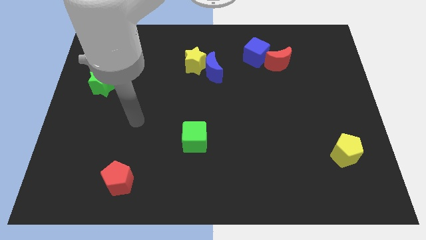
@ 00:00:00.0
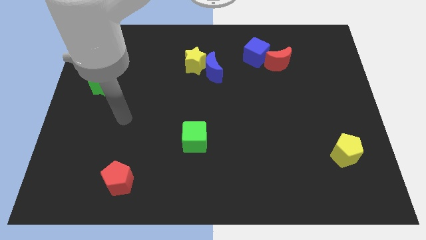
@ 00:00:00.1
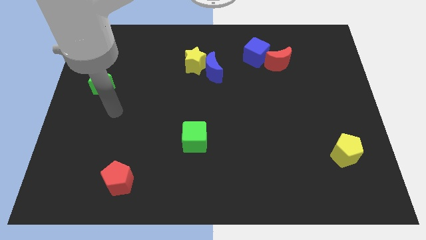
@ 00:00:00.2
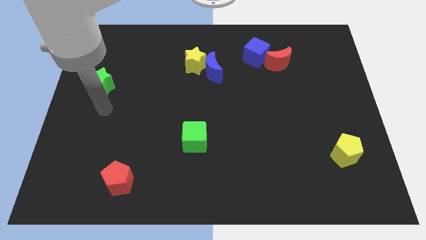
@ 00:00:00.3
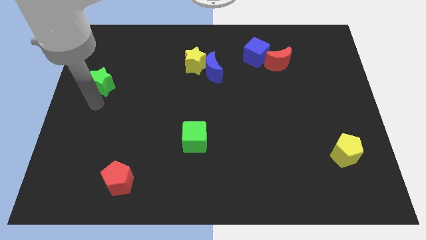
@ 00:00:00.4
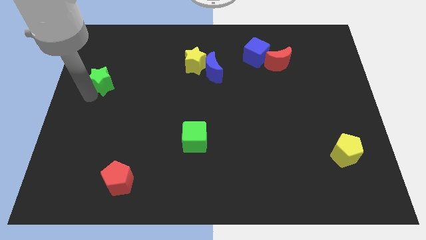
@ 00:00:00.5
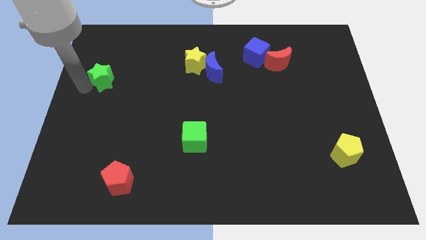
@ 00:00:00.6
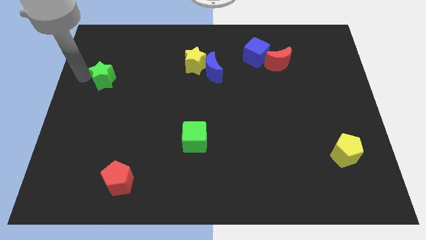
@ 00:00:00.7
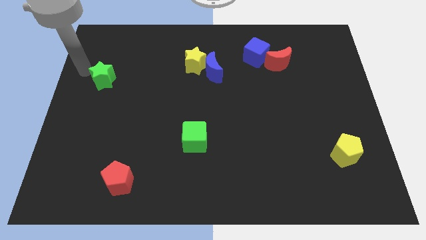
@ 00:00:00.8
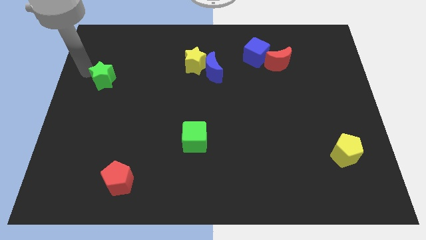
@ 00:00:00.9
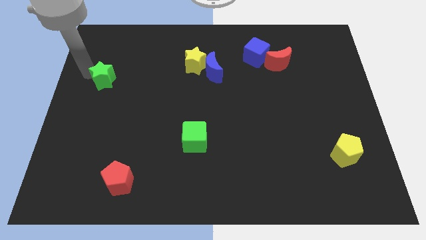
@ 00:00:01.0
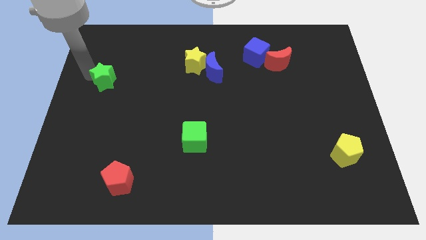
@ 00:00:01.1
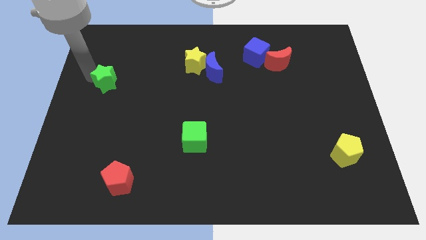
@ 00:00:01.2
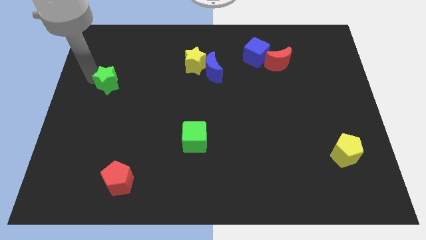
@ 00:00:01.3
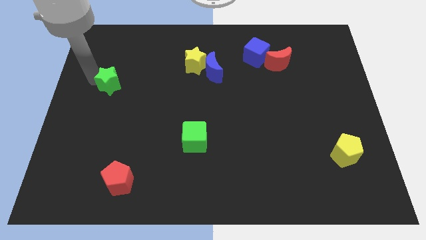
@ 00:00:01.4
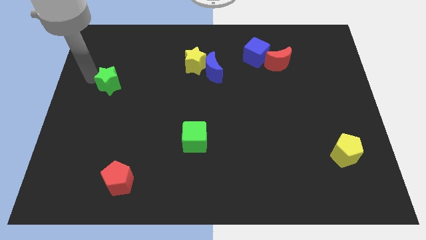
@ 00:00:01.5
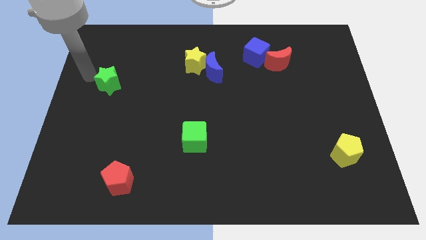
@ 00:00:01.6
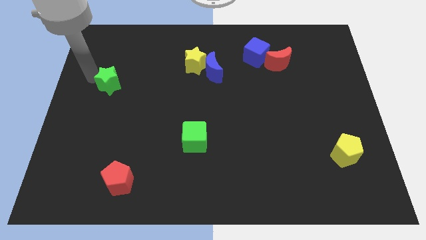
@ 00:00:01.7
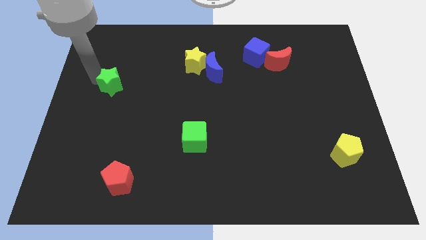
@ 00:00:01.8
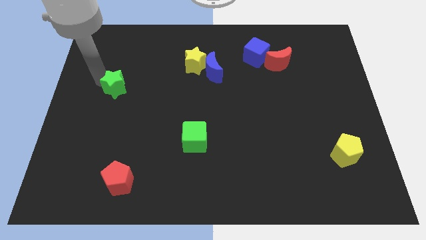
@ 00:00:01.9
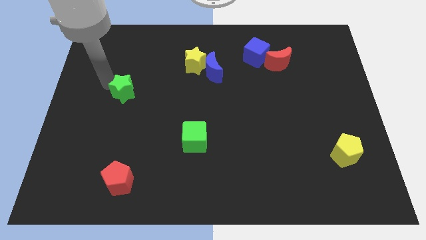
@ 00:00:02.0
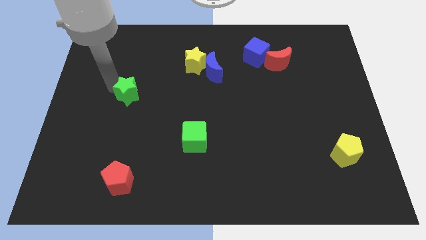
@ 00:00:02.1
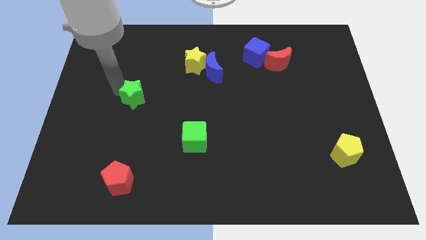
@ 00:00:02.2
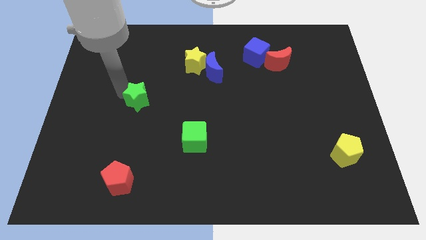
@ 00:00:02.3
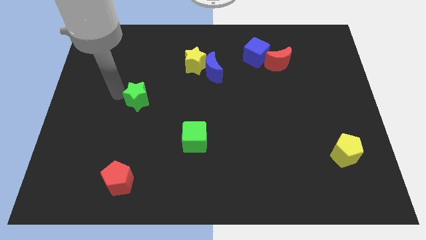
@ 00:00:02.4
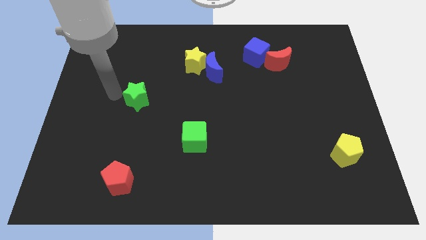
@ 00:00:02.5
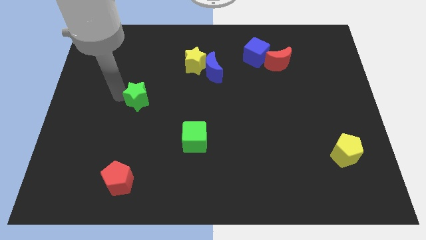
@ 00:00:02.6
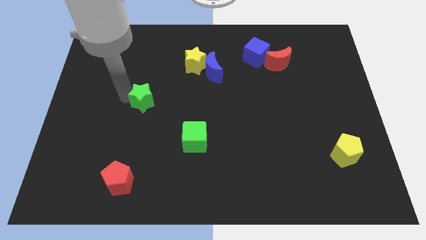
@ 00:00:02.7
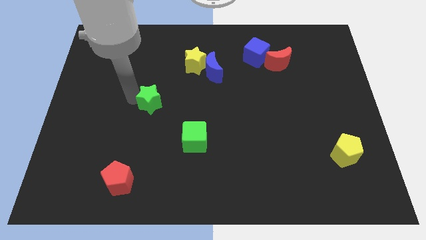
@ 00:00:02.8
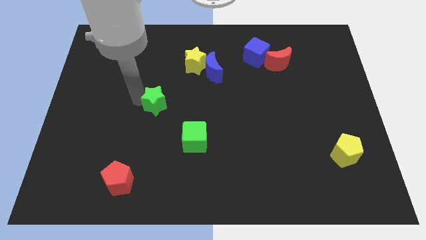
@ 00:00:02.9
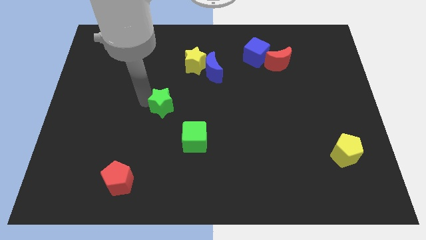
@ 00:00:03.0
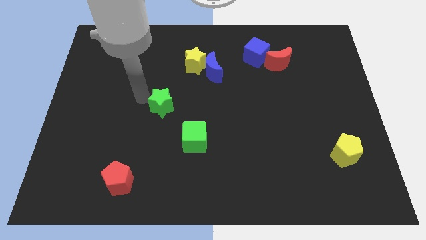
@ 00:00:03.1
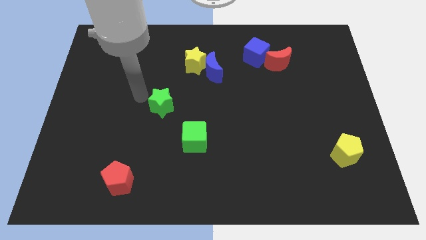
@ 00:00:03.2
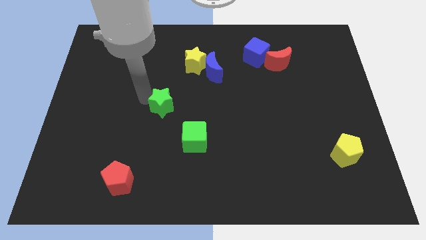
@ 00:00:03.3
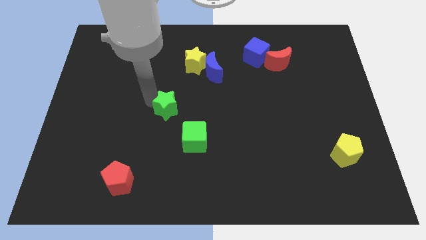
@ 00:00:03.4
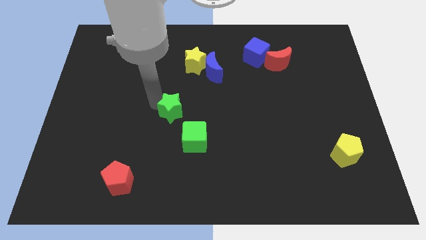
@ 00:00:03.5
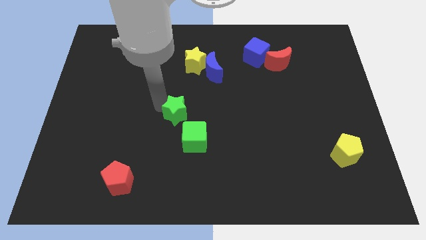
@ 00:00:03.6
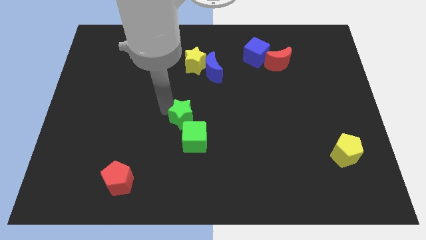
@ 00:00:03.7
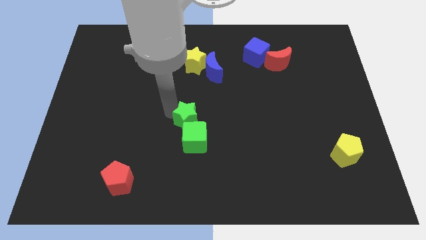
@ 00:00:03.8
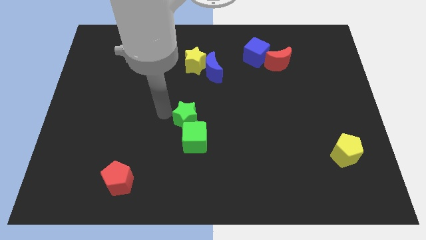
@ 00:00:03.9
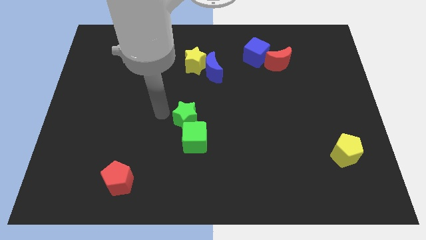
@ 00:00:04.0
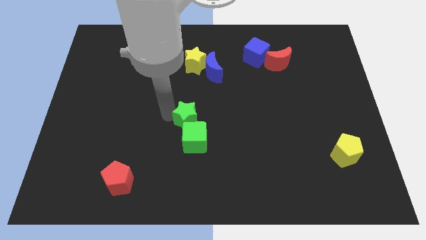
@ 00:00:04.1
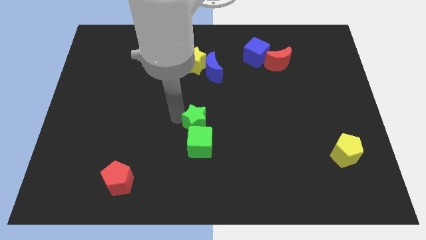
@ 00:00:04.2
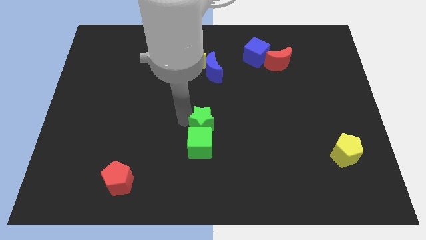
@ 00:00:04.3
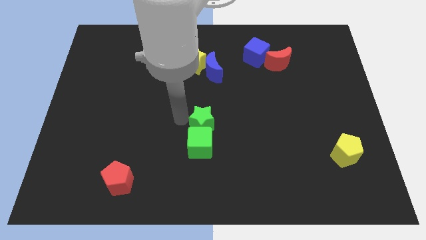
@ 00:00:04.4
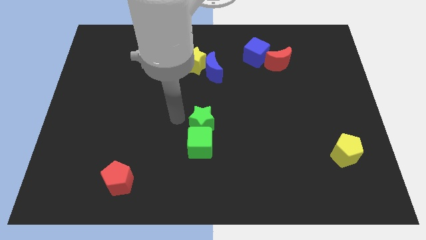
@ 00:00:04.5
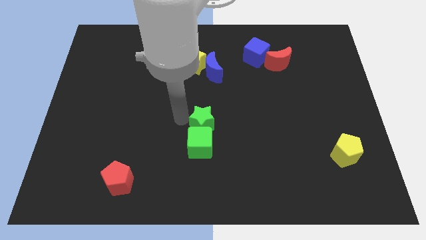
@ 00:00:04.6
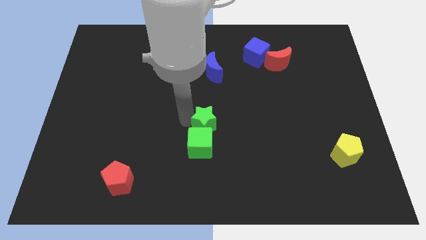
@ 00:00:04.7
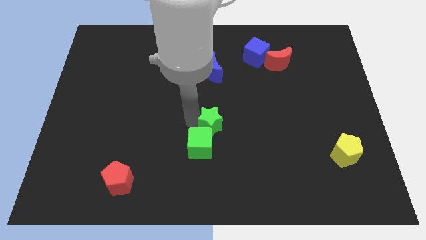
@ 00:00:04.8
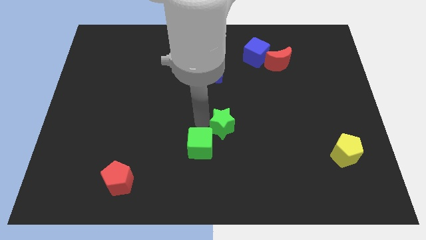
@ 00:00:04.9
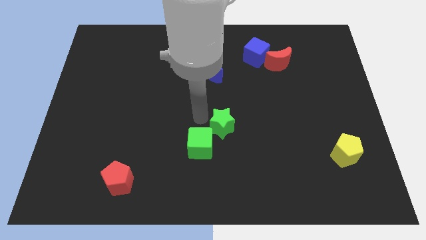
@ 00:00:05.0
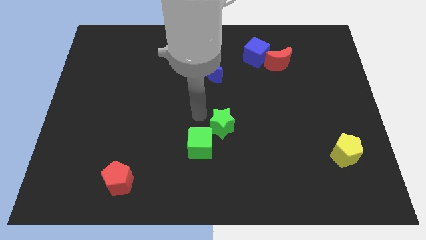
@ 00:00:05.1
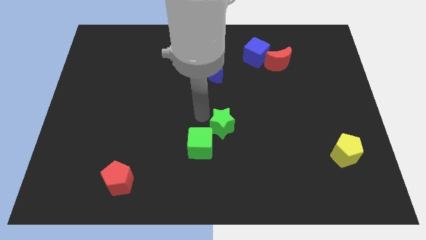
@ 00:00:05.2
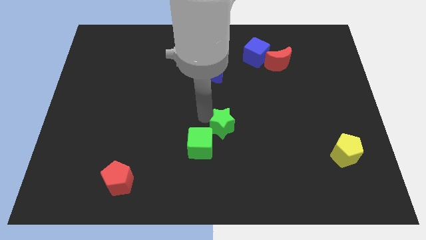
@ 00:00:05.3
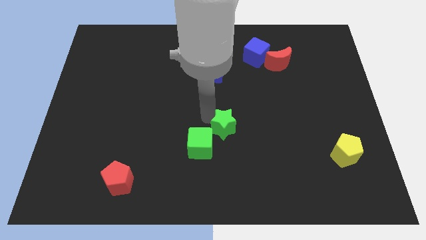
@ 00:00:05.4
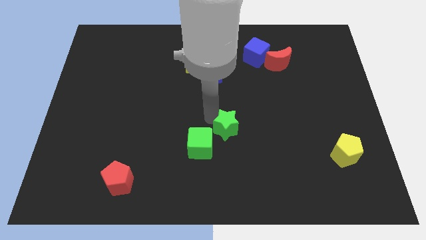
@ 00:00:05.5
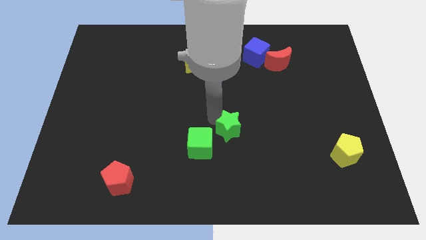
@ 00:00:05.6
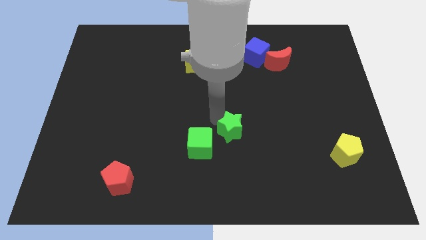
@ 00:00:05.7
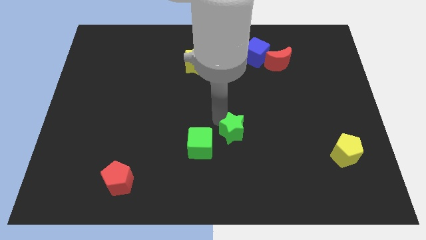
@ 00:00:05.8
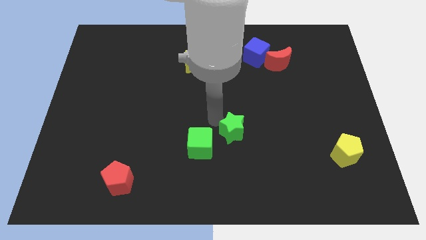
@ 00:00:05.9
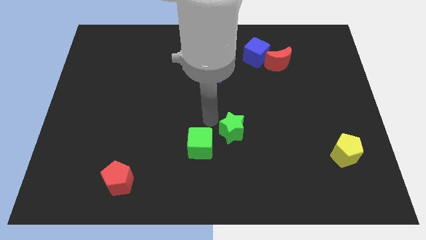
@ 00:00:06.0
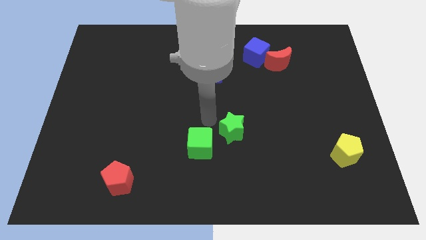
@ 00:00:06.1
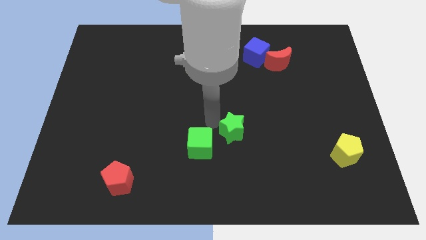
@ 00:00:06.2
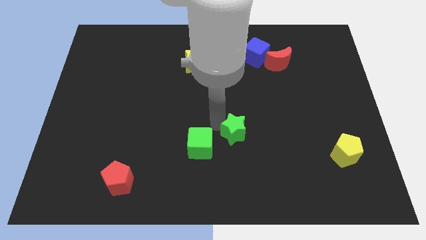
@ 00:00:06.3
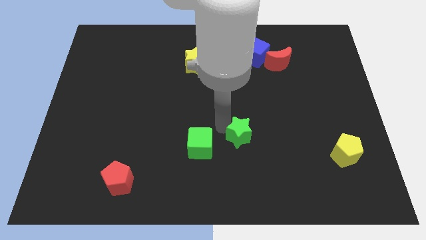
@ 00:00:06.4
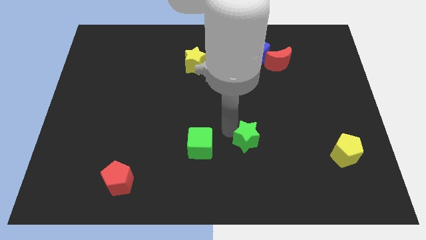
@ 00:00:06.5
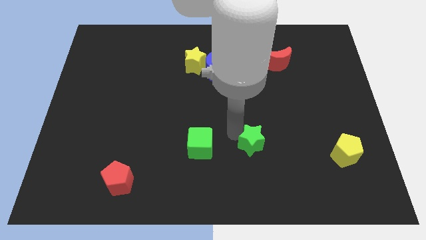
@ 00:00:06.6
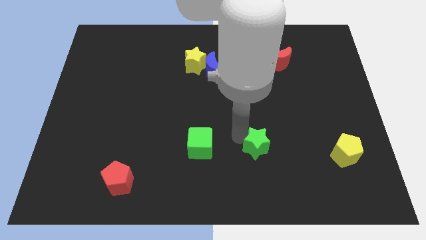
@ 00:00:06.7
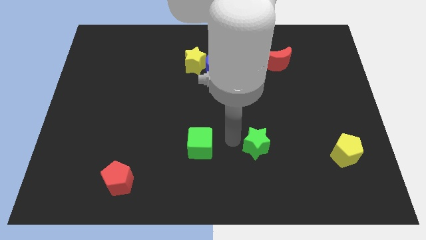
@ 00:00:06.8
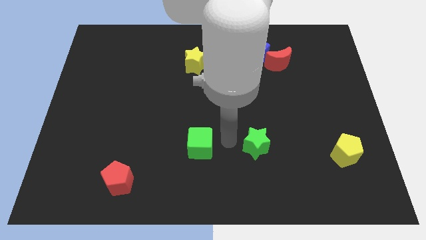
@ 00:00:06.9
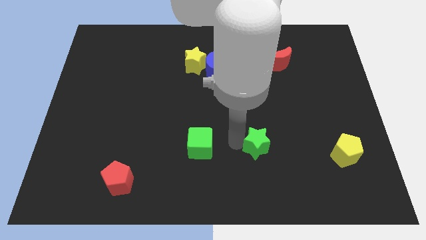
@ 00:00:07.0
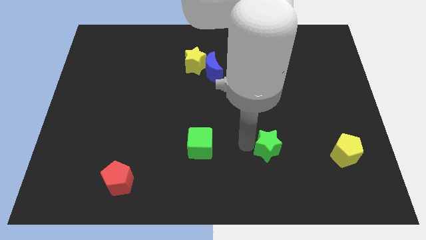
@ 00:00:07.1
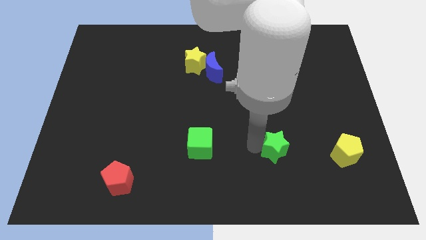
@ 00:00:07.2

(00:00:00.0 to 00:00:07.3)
put the green star left of the yellow pentagon
